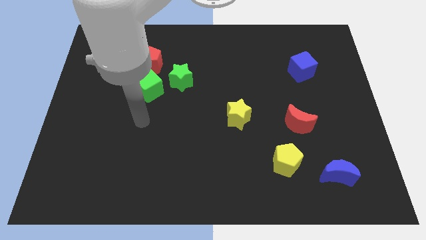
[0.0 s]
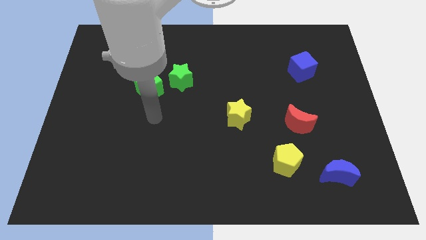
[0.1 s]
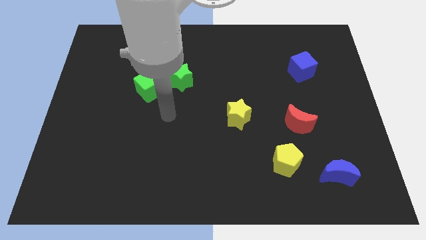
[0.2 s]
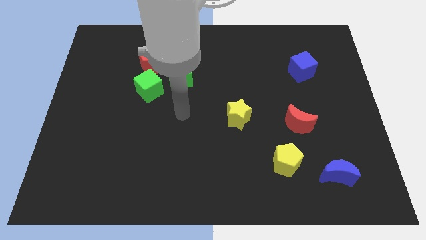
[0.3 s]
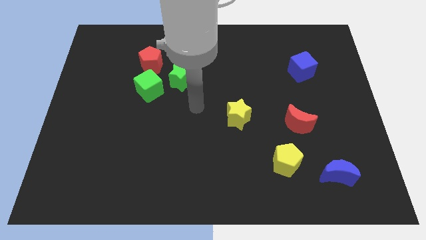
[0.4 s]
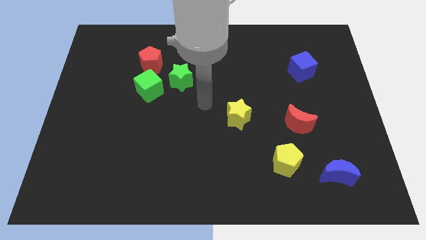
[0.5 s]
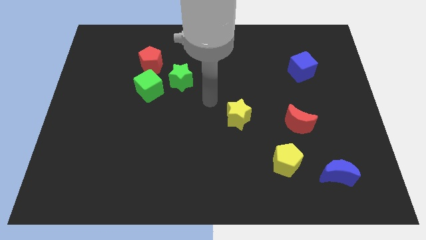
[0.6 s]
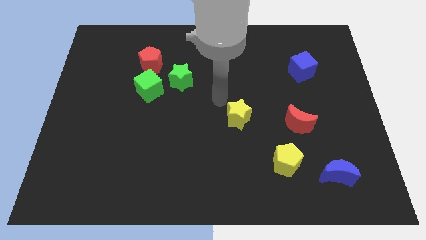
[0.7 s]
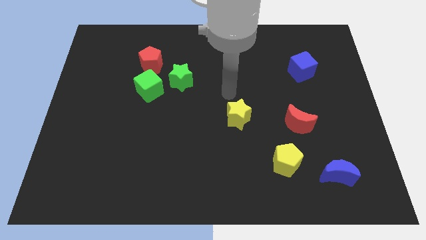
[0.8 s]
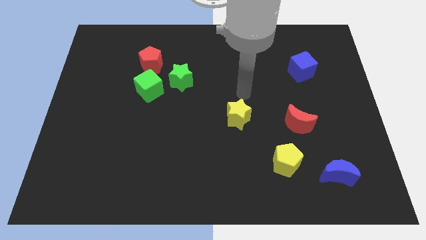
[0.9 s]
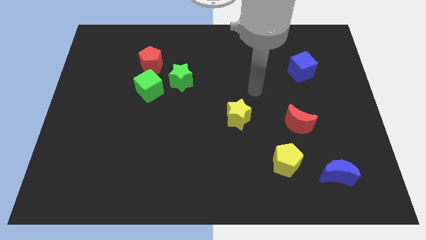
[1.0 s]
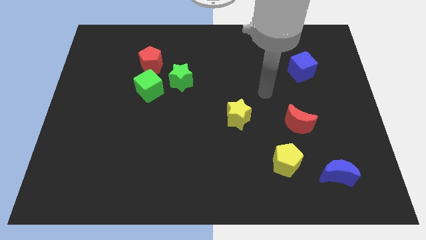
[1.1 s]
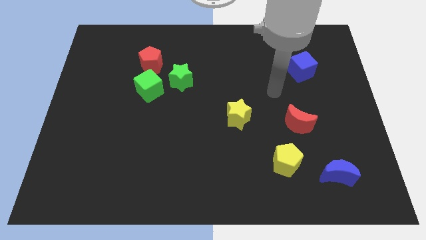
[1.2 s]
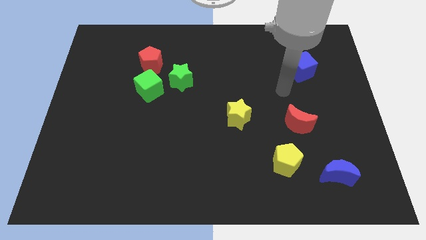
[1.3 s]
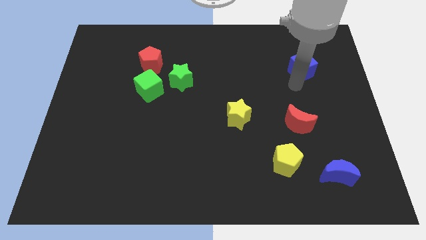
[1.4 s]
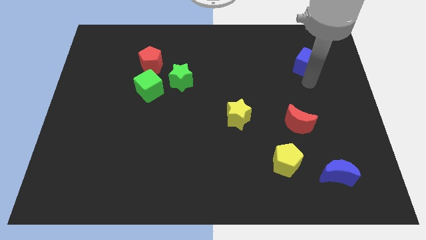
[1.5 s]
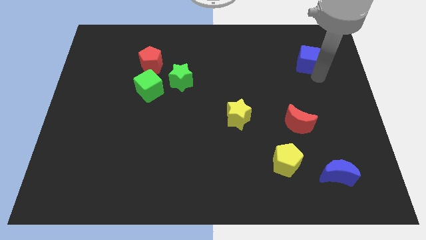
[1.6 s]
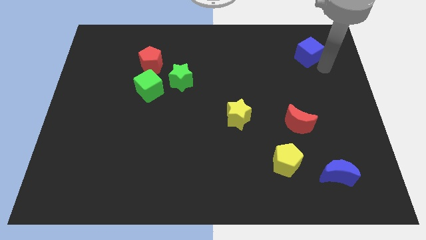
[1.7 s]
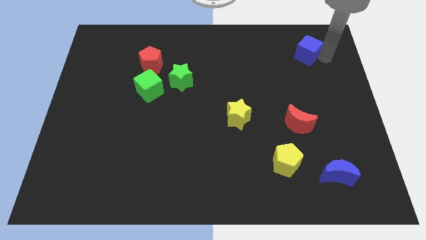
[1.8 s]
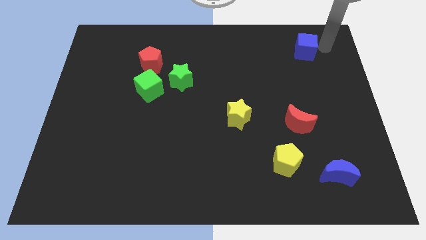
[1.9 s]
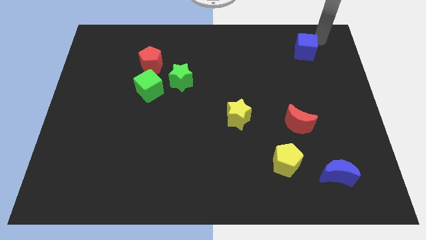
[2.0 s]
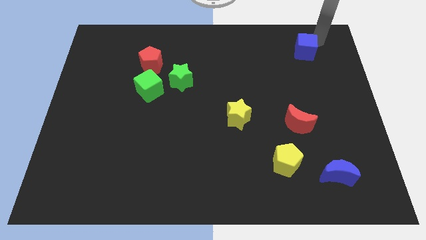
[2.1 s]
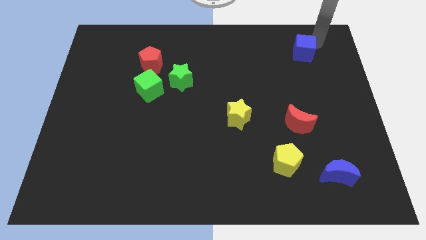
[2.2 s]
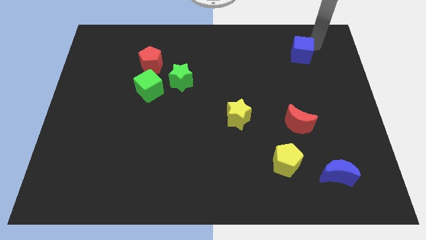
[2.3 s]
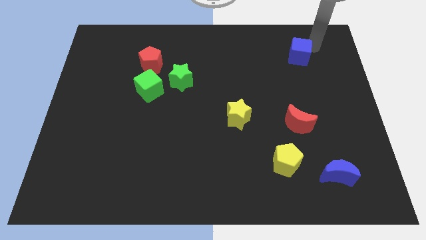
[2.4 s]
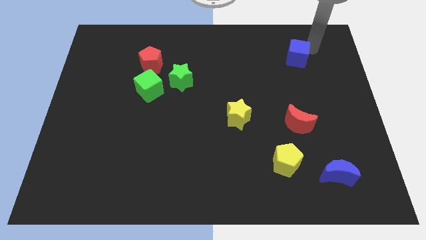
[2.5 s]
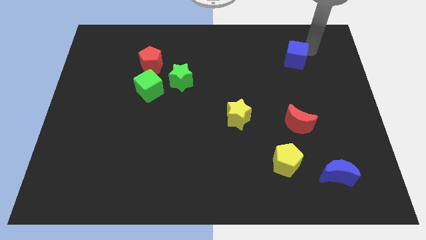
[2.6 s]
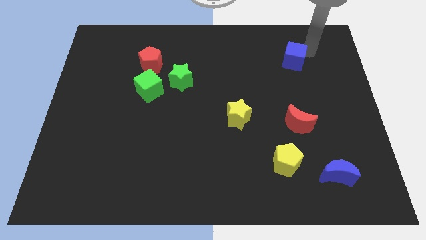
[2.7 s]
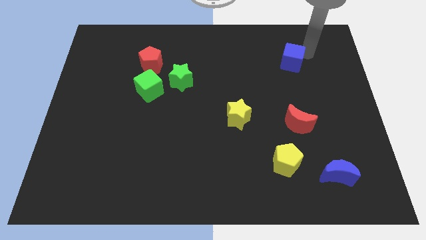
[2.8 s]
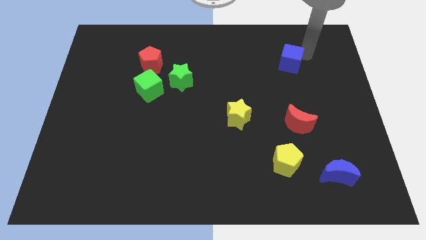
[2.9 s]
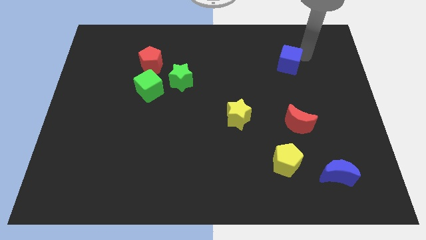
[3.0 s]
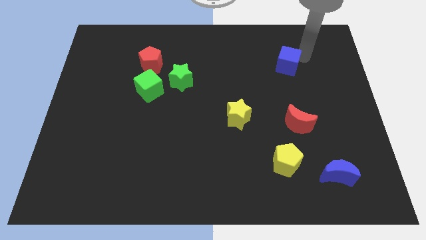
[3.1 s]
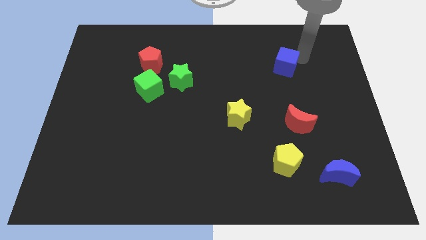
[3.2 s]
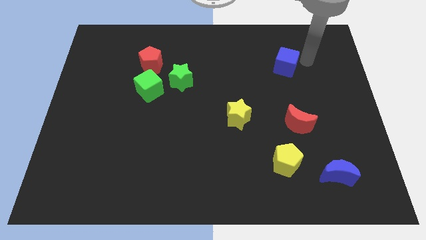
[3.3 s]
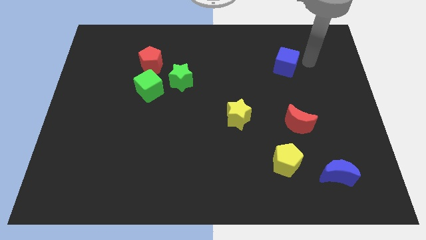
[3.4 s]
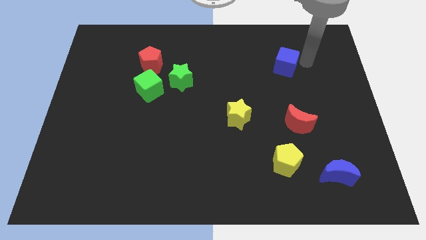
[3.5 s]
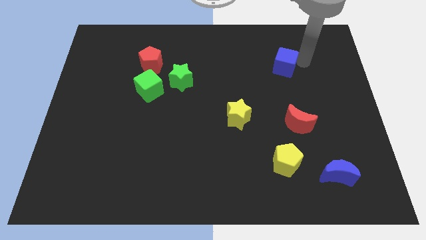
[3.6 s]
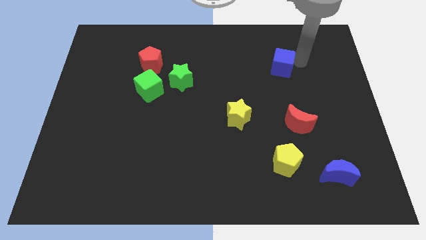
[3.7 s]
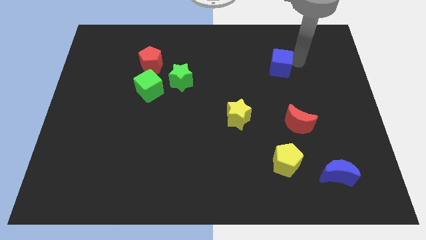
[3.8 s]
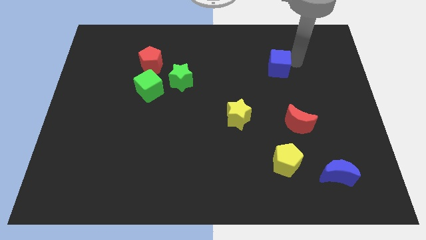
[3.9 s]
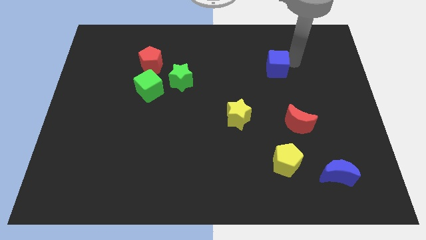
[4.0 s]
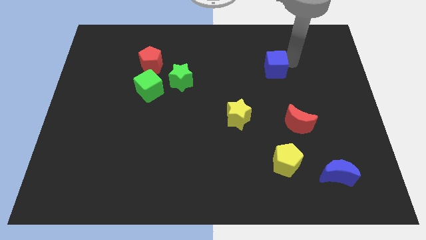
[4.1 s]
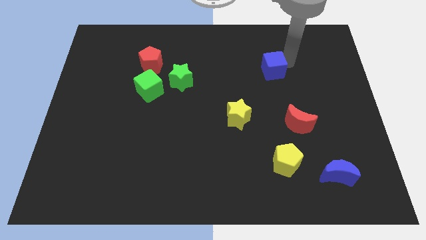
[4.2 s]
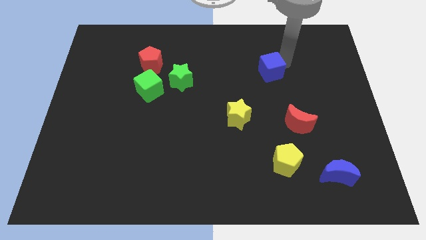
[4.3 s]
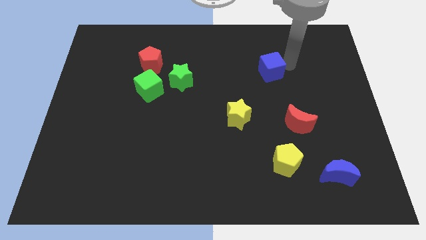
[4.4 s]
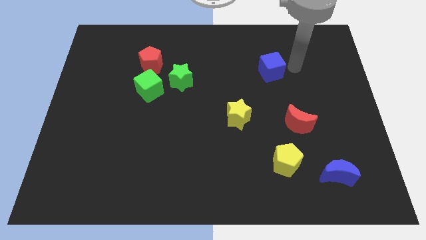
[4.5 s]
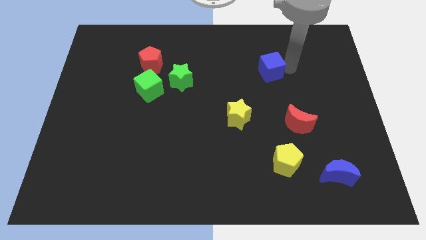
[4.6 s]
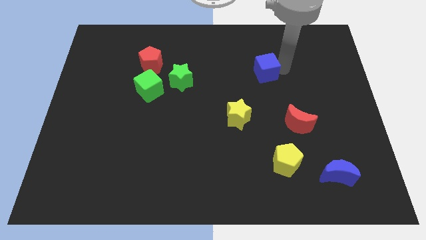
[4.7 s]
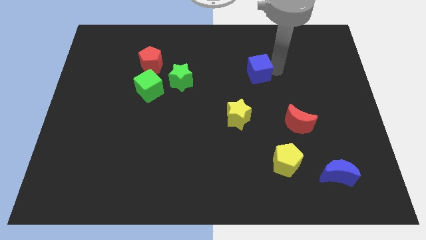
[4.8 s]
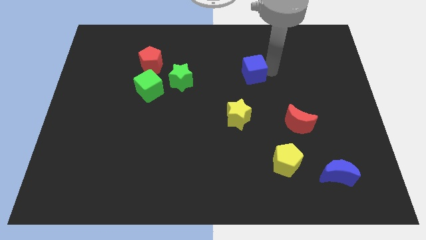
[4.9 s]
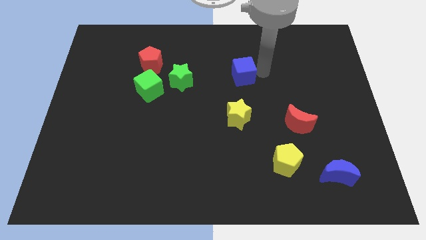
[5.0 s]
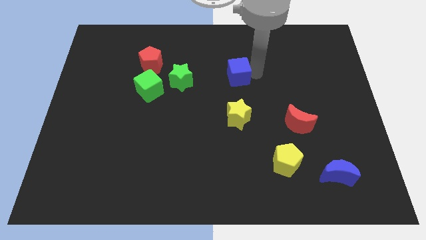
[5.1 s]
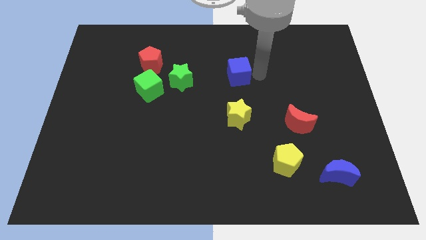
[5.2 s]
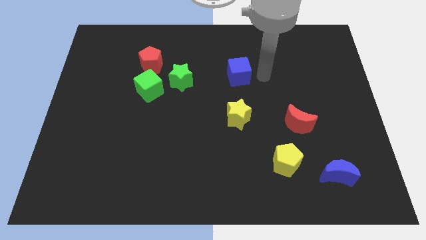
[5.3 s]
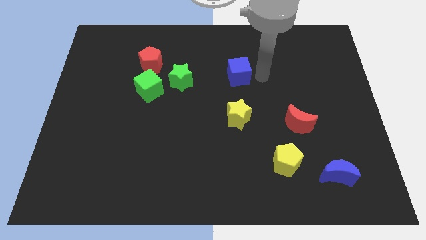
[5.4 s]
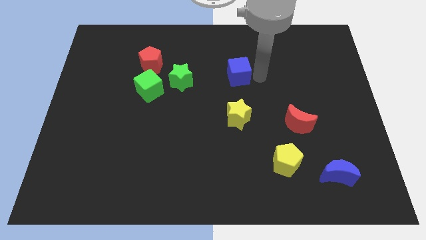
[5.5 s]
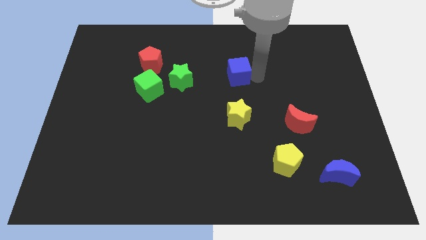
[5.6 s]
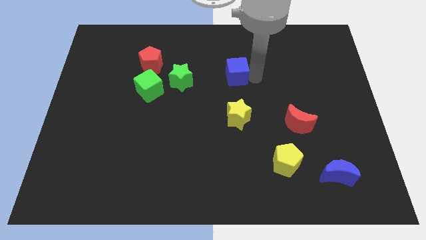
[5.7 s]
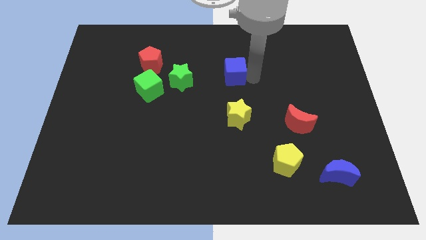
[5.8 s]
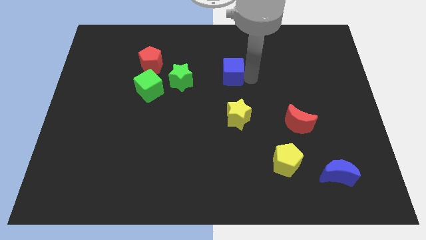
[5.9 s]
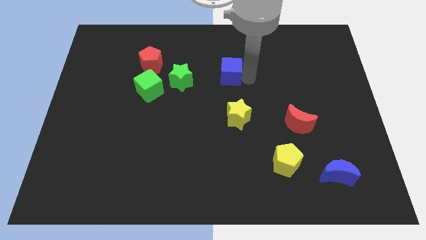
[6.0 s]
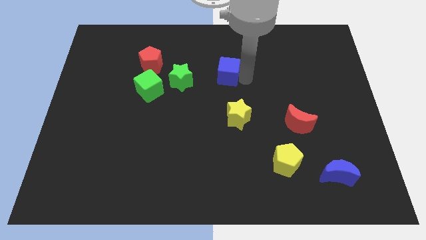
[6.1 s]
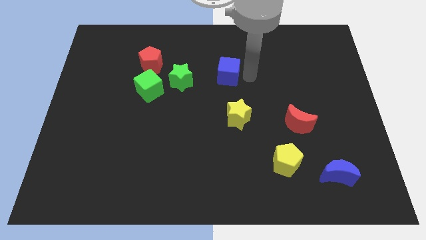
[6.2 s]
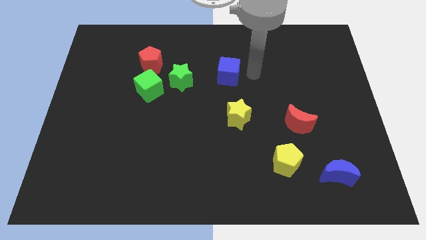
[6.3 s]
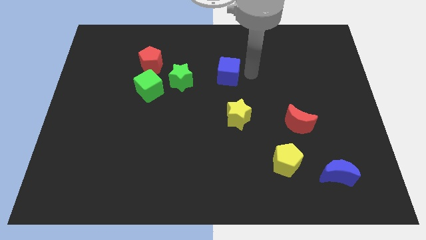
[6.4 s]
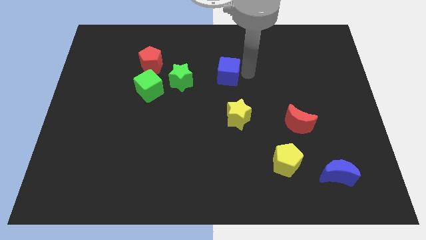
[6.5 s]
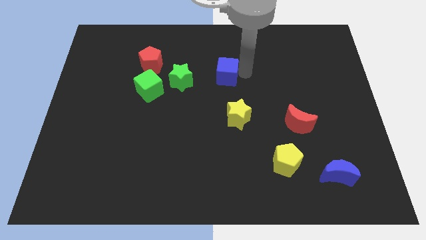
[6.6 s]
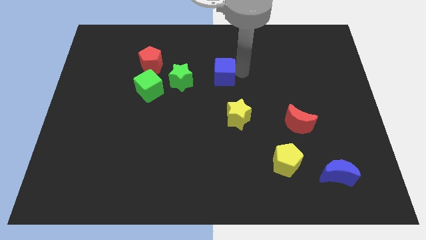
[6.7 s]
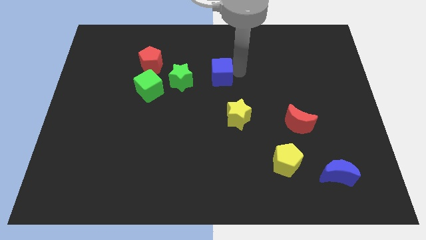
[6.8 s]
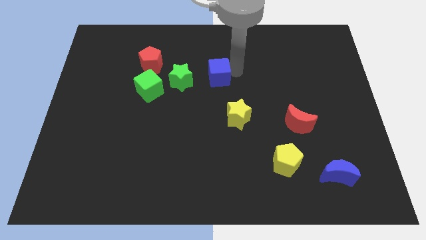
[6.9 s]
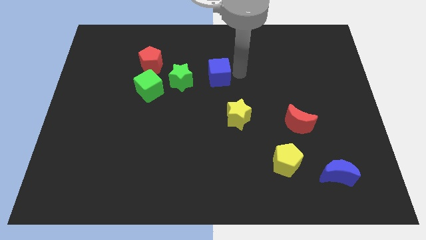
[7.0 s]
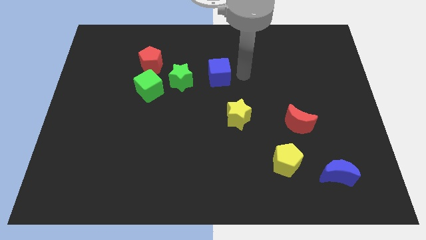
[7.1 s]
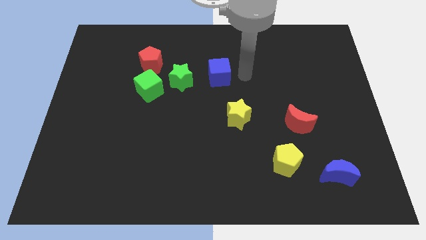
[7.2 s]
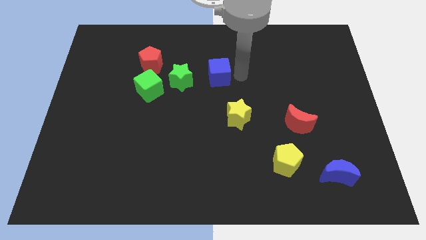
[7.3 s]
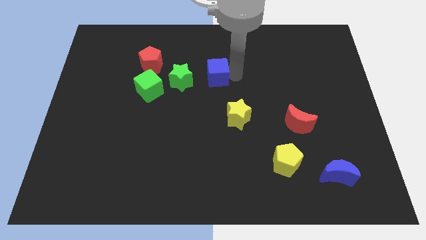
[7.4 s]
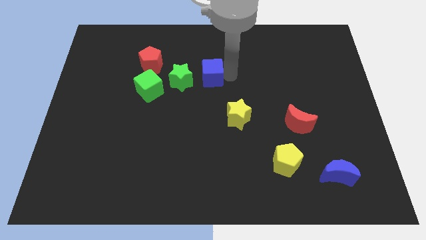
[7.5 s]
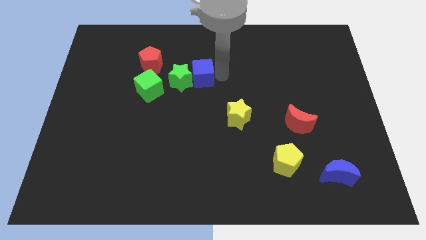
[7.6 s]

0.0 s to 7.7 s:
move the blue cube towards the green star
